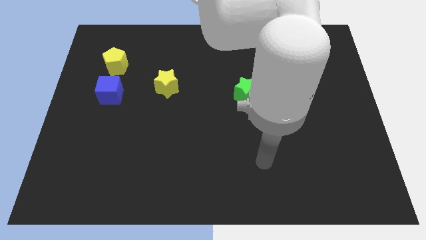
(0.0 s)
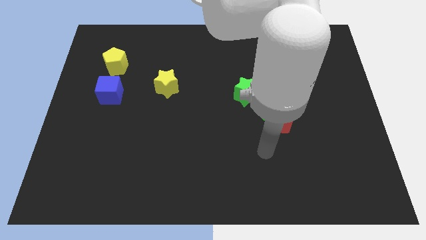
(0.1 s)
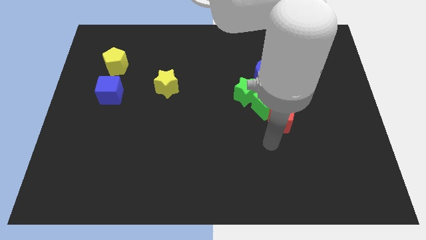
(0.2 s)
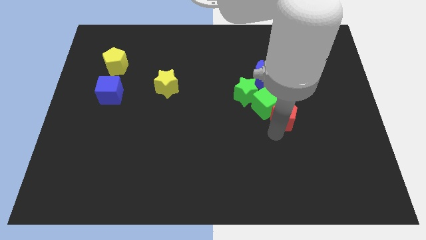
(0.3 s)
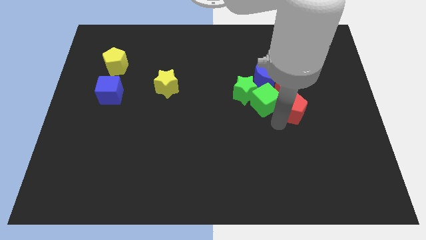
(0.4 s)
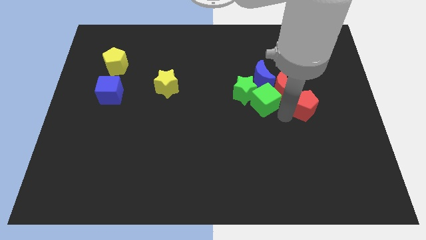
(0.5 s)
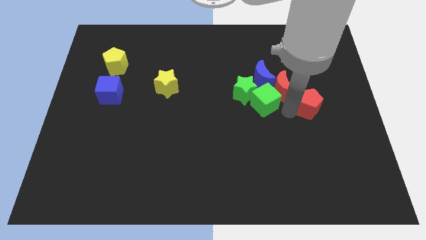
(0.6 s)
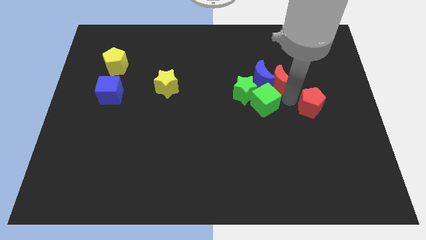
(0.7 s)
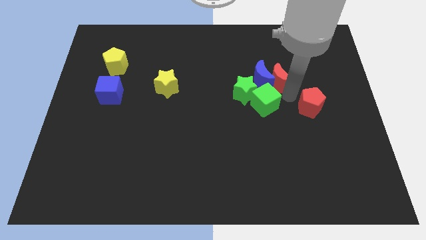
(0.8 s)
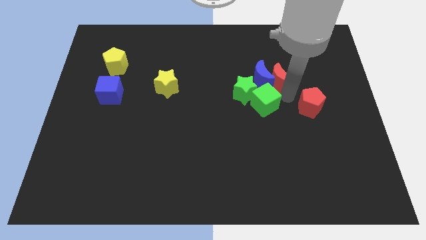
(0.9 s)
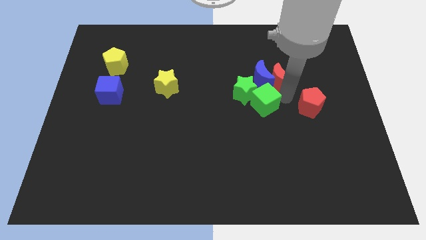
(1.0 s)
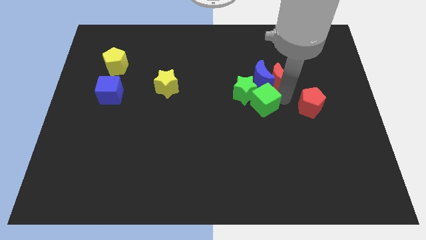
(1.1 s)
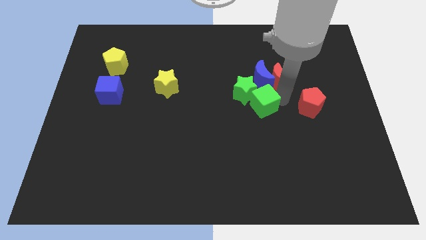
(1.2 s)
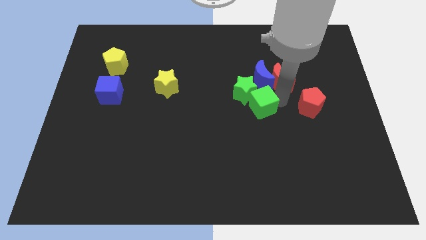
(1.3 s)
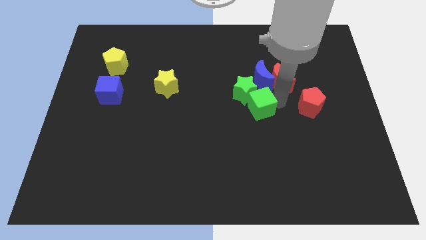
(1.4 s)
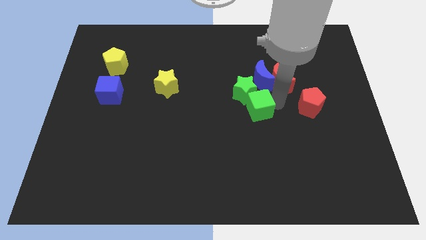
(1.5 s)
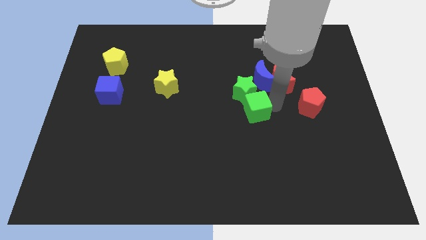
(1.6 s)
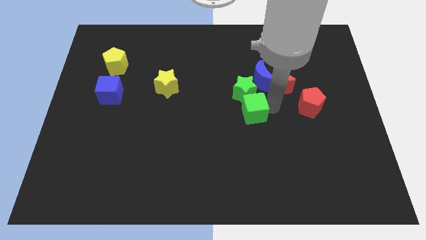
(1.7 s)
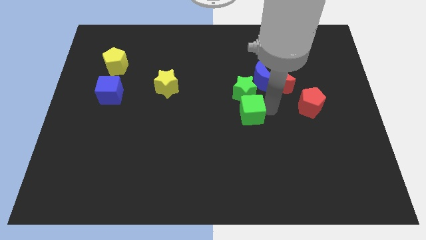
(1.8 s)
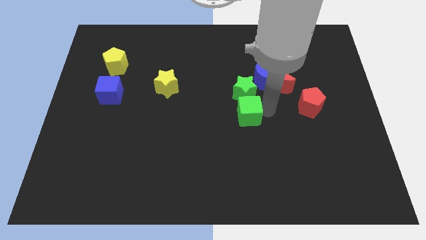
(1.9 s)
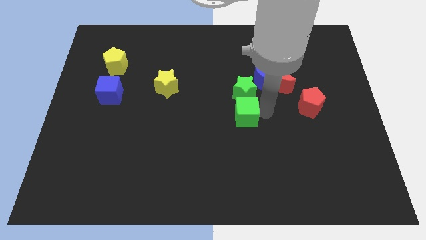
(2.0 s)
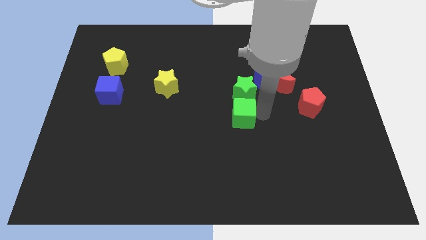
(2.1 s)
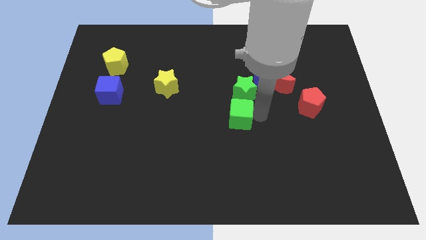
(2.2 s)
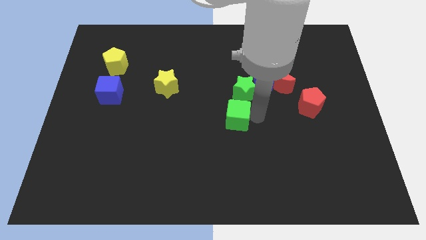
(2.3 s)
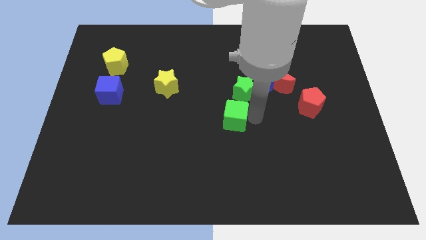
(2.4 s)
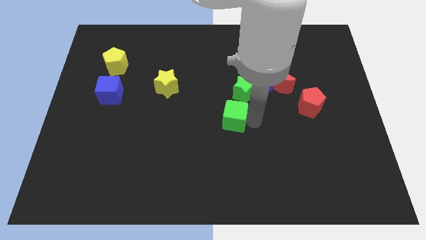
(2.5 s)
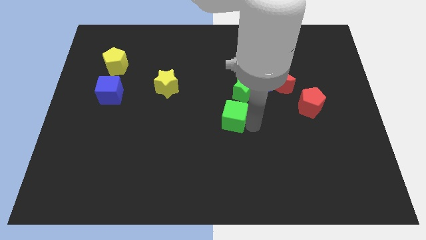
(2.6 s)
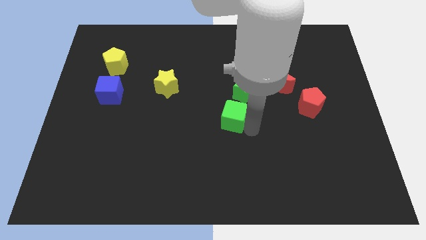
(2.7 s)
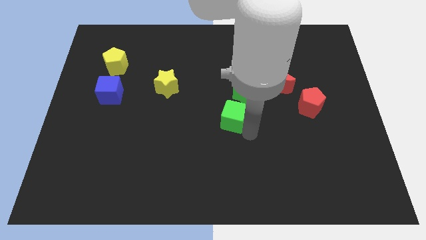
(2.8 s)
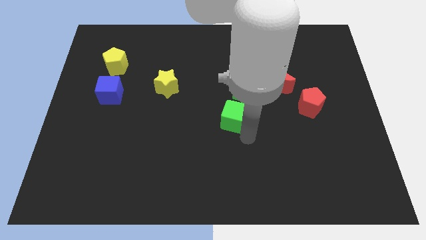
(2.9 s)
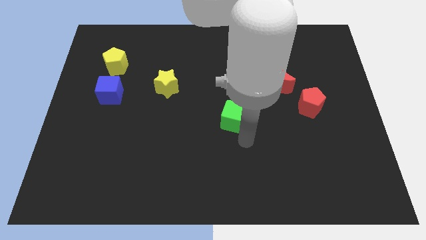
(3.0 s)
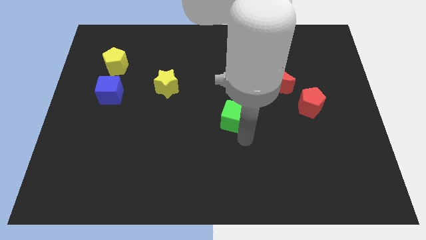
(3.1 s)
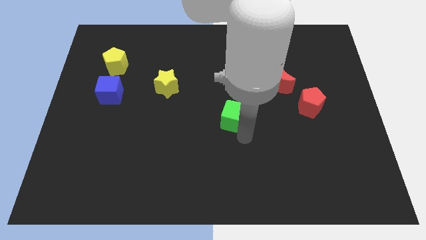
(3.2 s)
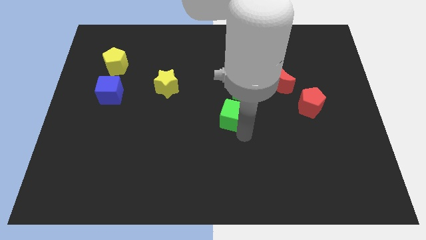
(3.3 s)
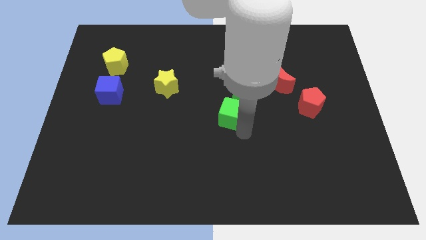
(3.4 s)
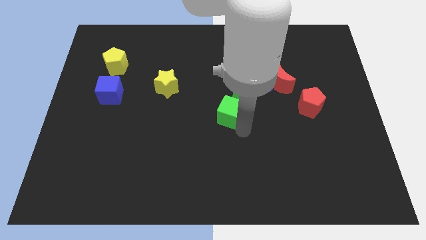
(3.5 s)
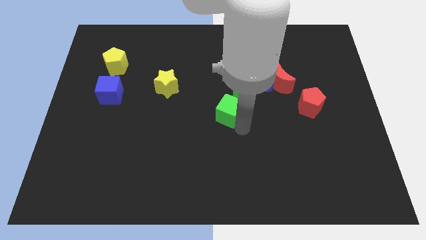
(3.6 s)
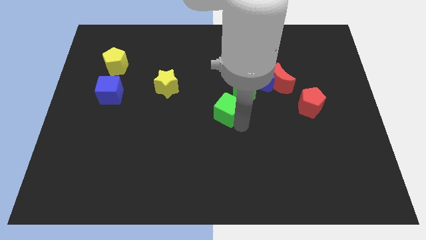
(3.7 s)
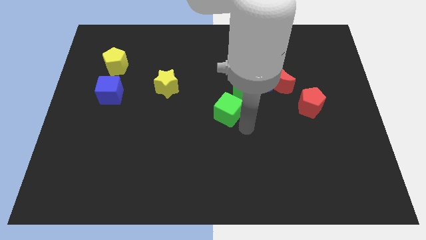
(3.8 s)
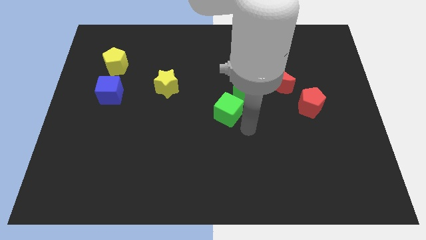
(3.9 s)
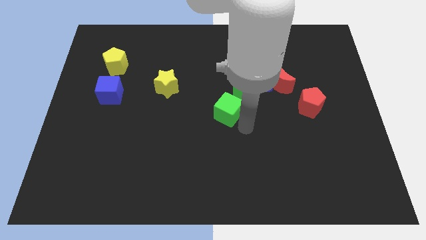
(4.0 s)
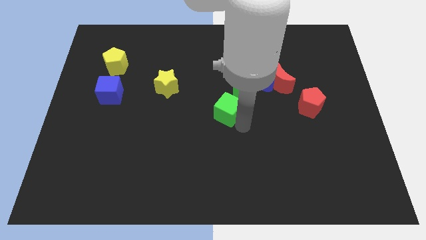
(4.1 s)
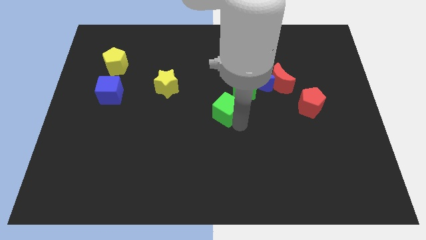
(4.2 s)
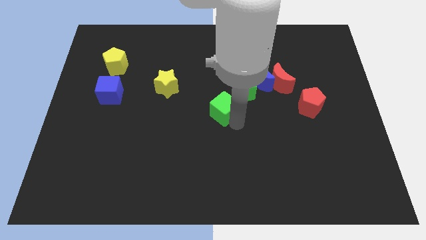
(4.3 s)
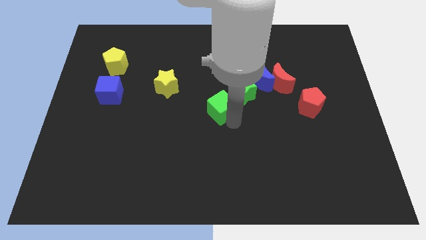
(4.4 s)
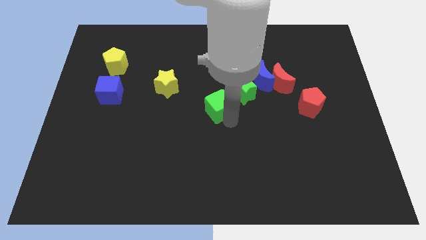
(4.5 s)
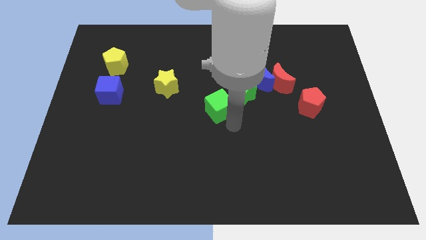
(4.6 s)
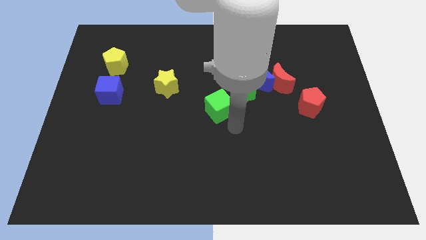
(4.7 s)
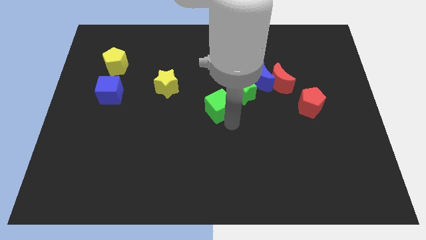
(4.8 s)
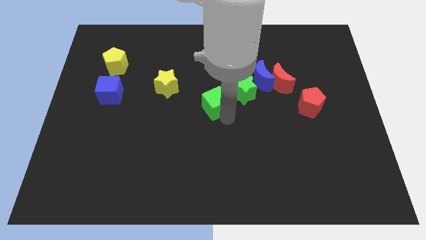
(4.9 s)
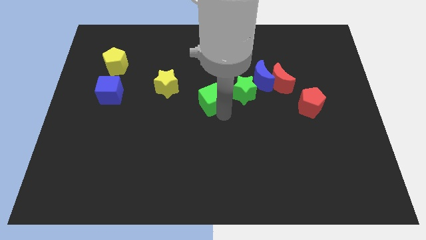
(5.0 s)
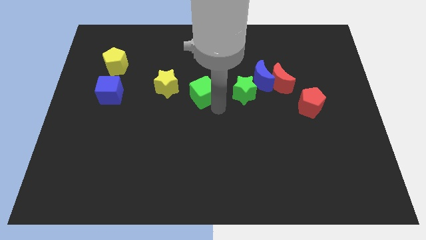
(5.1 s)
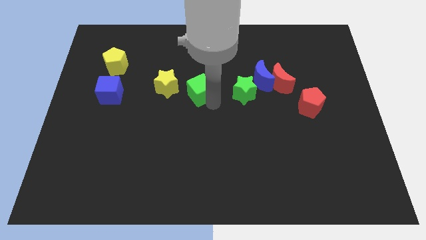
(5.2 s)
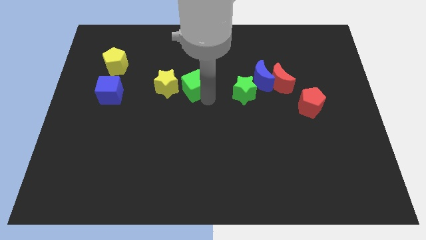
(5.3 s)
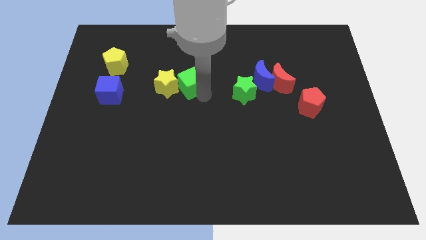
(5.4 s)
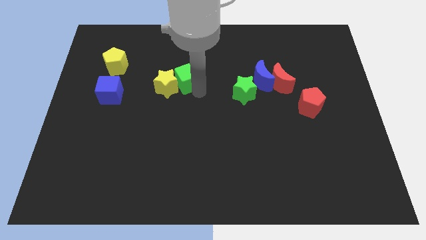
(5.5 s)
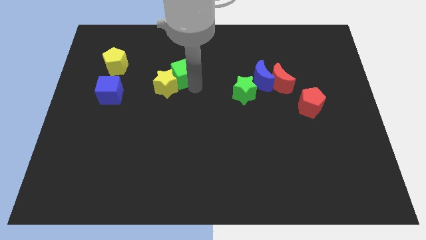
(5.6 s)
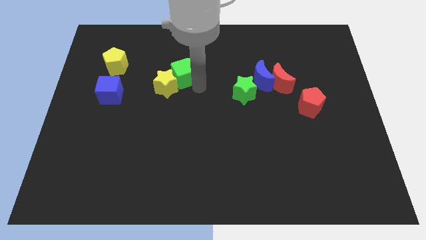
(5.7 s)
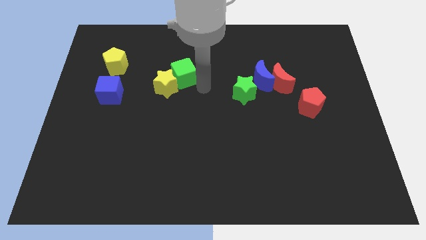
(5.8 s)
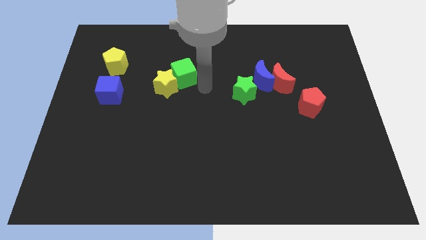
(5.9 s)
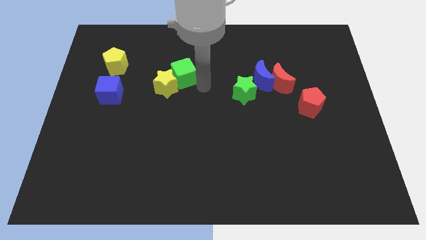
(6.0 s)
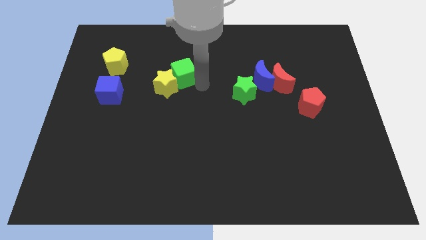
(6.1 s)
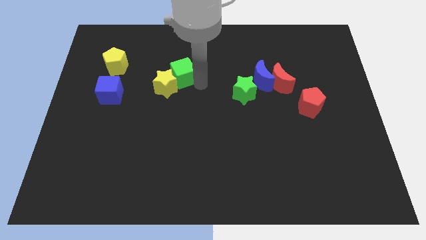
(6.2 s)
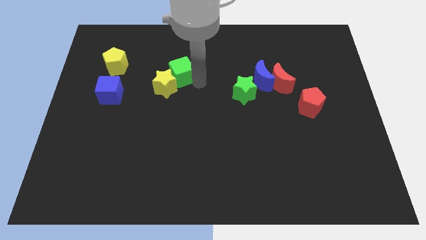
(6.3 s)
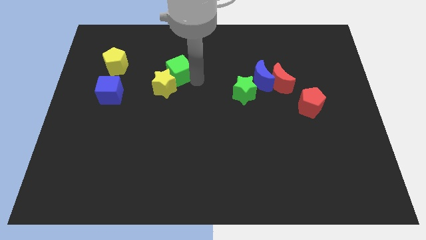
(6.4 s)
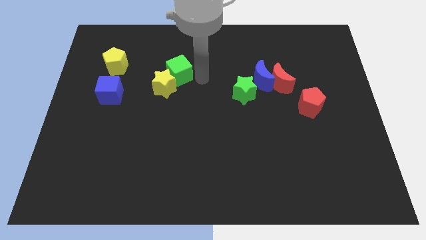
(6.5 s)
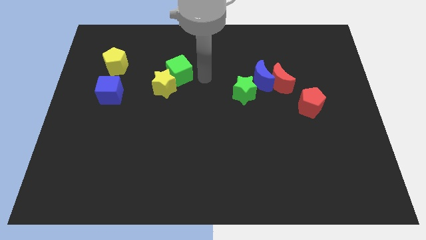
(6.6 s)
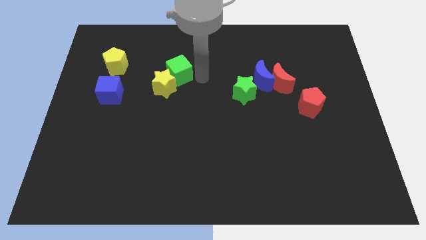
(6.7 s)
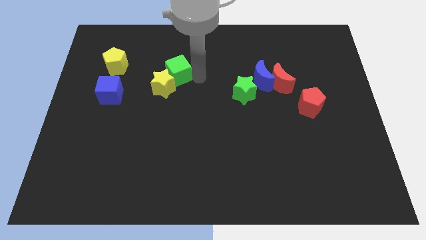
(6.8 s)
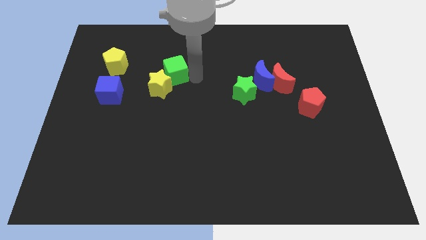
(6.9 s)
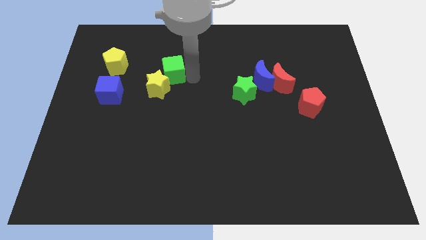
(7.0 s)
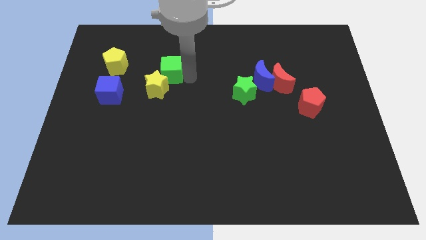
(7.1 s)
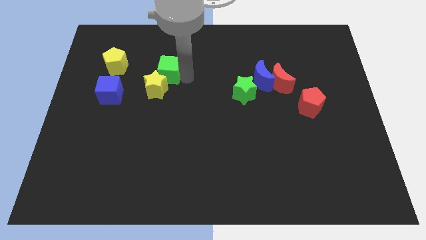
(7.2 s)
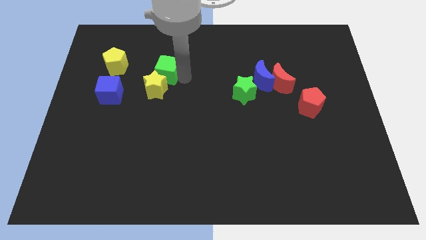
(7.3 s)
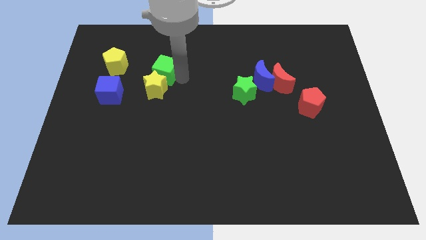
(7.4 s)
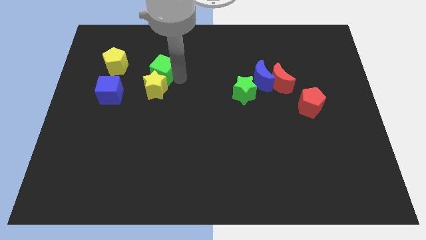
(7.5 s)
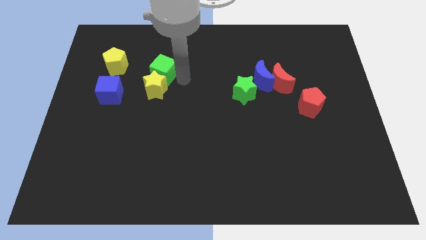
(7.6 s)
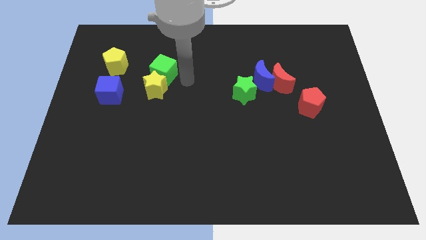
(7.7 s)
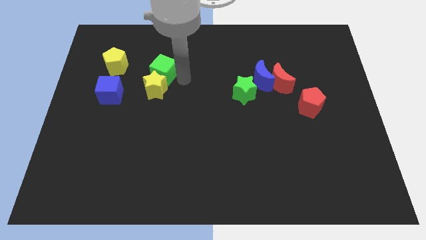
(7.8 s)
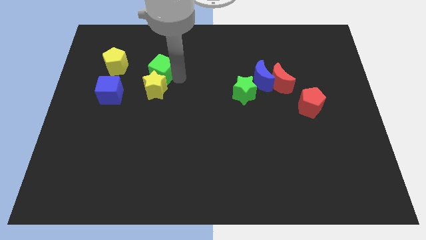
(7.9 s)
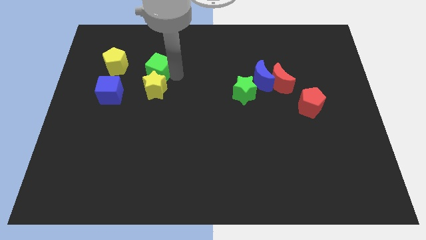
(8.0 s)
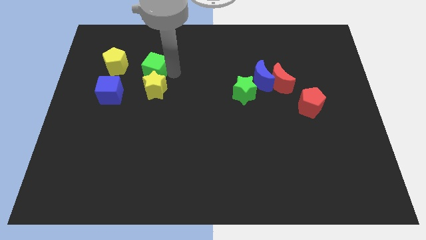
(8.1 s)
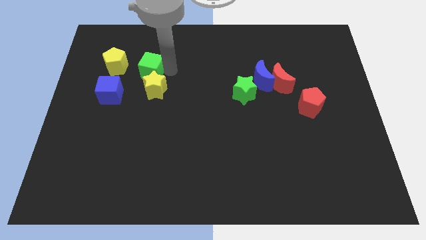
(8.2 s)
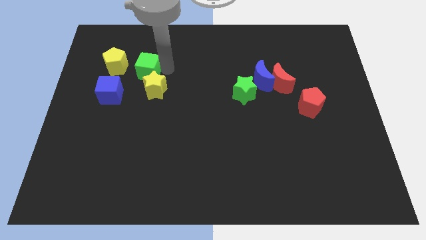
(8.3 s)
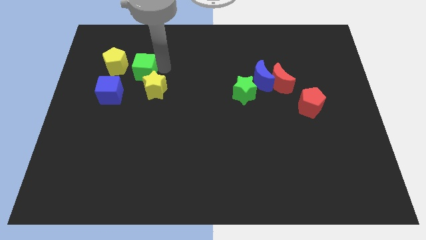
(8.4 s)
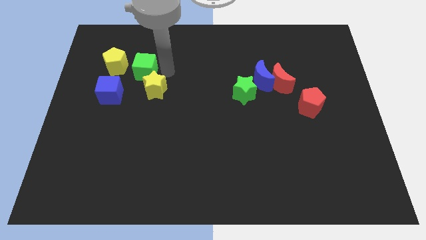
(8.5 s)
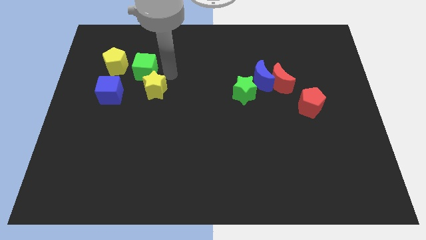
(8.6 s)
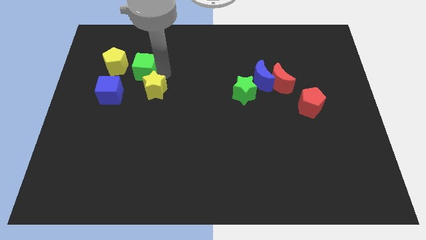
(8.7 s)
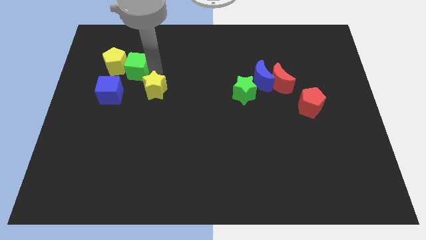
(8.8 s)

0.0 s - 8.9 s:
slide the green cube next to the yellow pentagon
